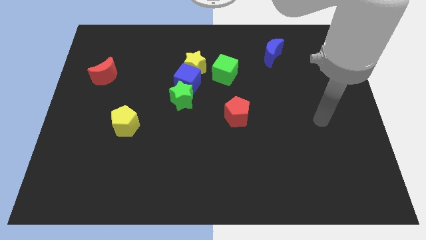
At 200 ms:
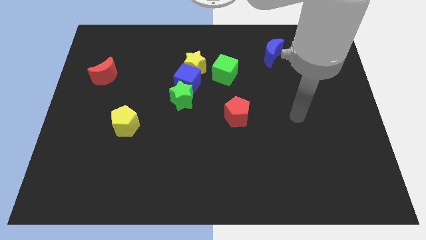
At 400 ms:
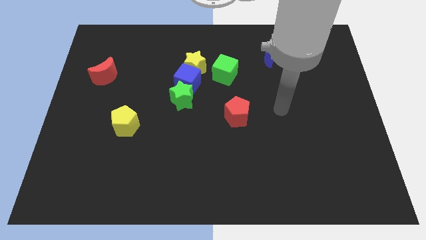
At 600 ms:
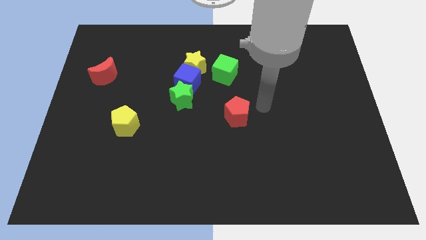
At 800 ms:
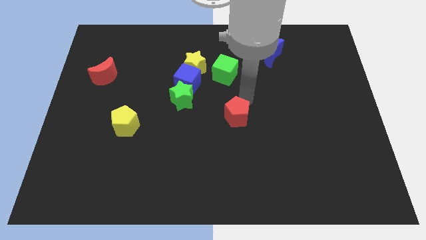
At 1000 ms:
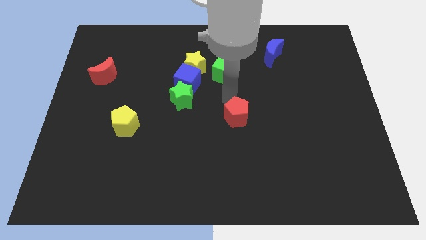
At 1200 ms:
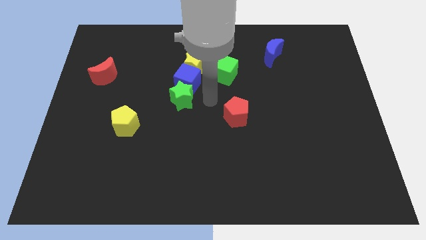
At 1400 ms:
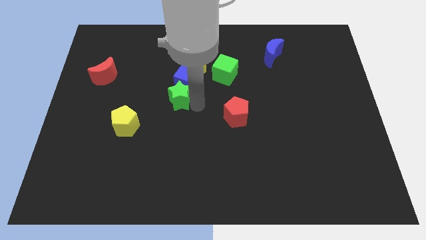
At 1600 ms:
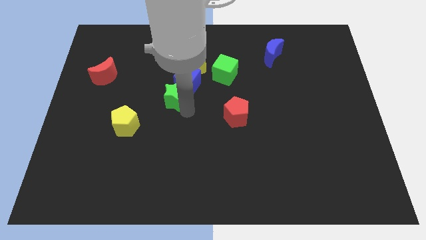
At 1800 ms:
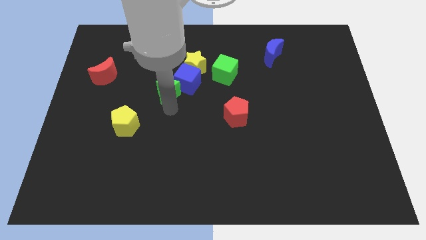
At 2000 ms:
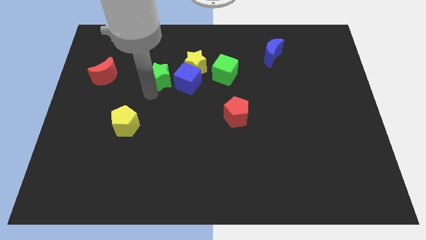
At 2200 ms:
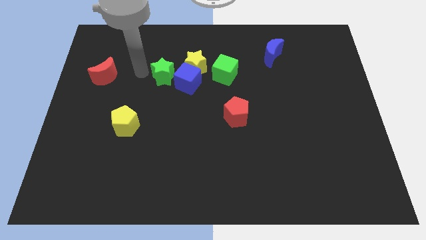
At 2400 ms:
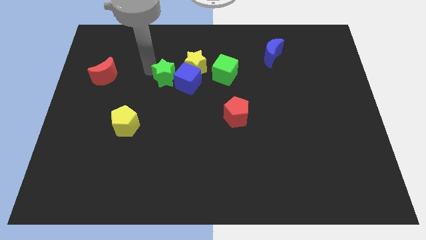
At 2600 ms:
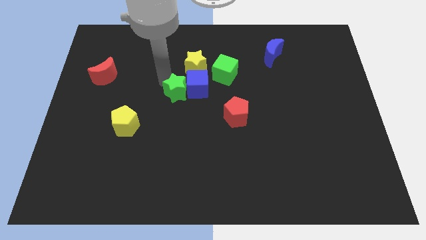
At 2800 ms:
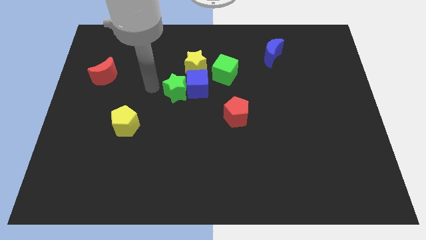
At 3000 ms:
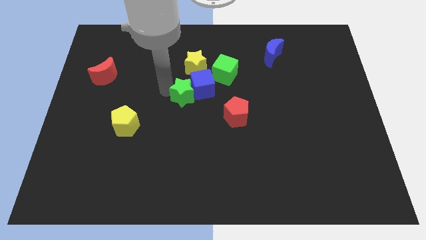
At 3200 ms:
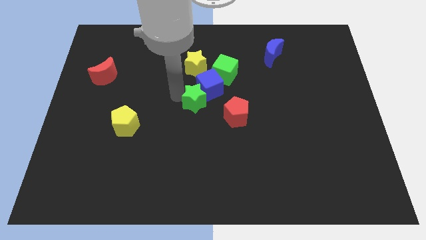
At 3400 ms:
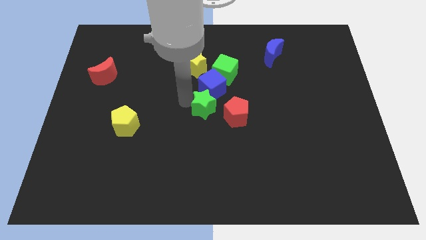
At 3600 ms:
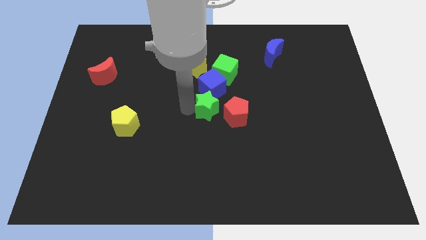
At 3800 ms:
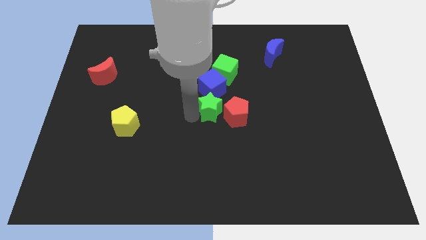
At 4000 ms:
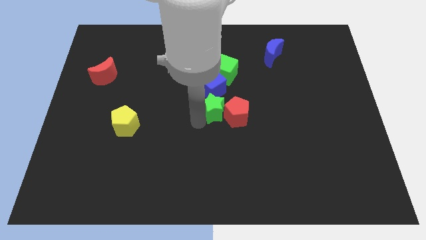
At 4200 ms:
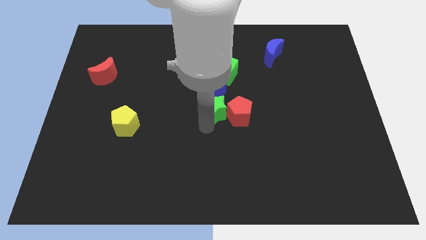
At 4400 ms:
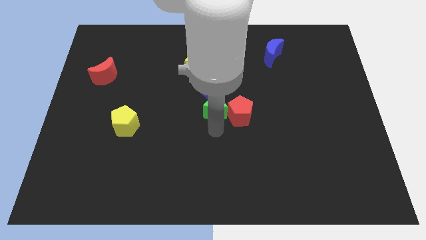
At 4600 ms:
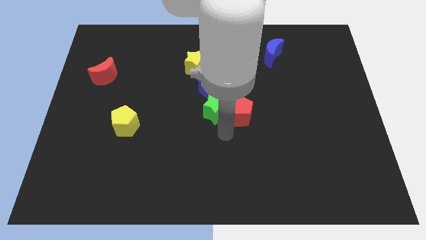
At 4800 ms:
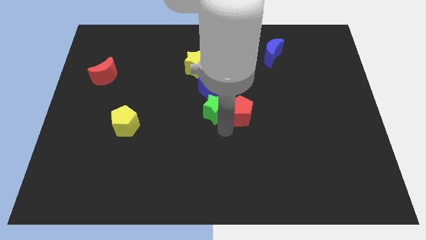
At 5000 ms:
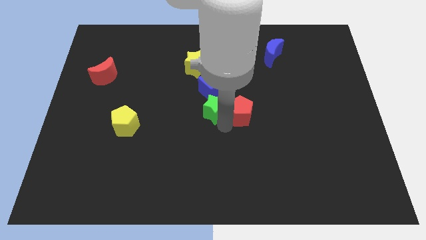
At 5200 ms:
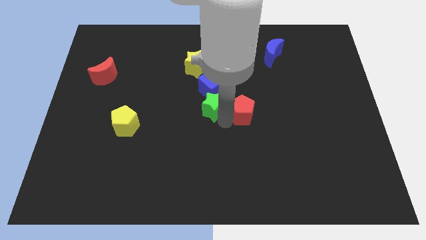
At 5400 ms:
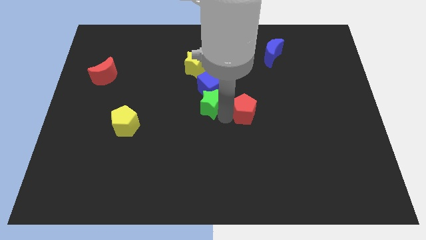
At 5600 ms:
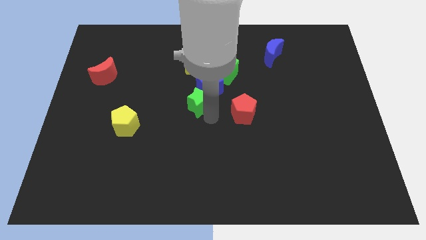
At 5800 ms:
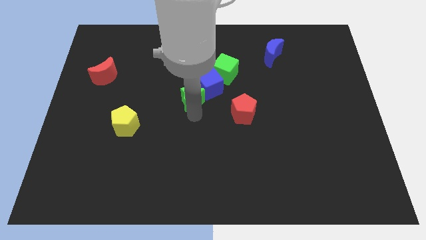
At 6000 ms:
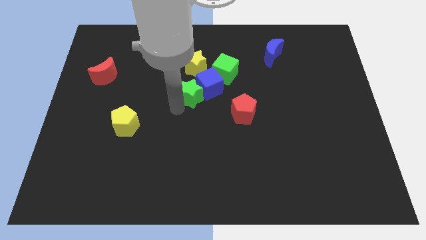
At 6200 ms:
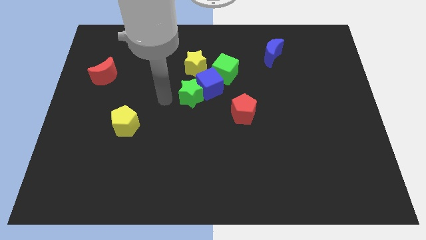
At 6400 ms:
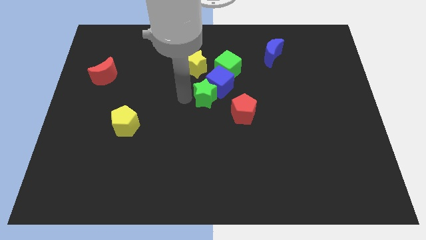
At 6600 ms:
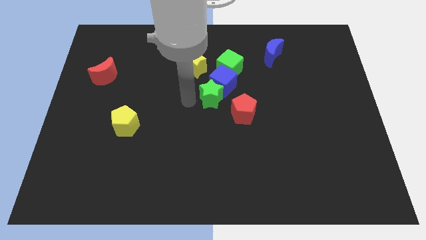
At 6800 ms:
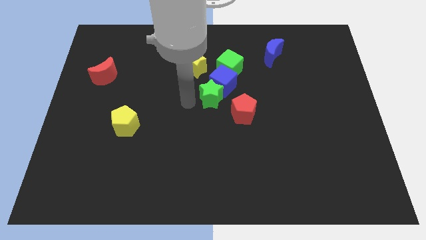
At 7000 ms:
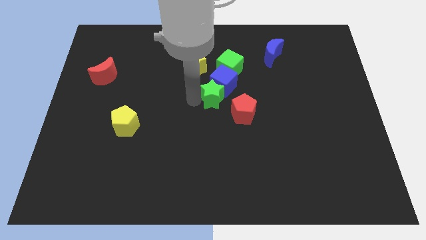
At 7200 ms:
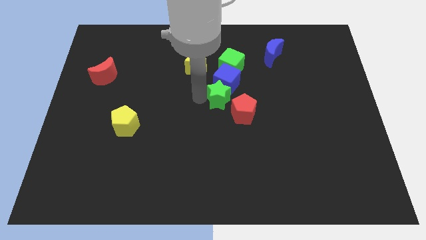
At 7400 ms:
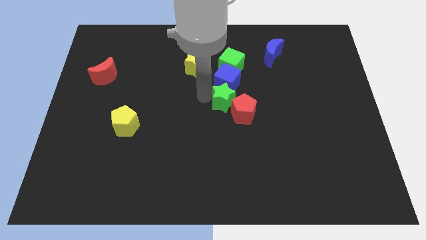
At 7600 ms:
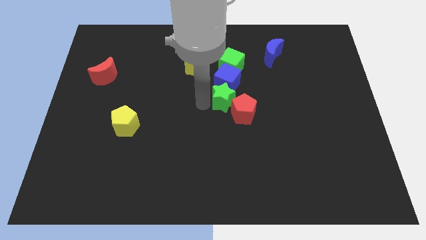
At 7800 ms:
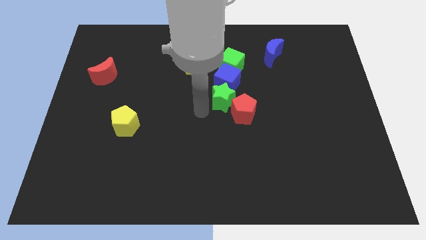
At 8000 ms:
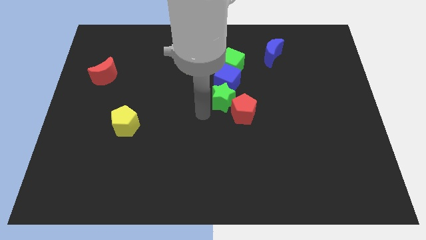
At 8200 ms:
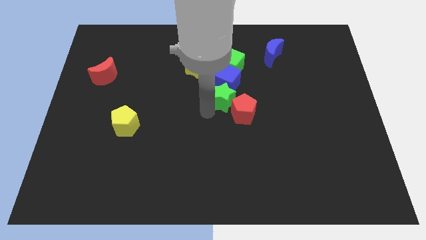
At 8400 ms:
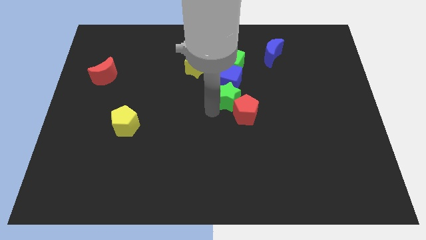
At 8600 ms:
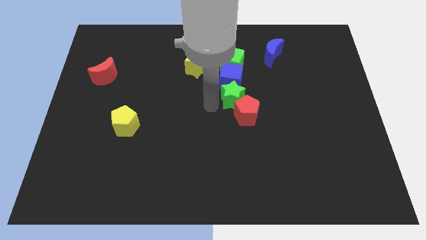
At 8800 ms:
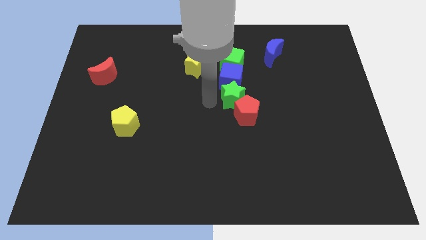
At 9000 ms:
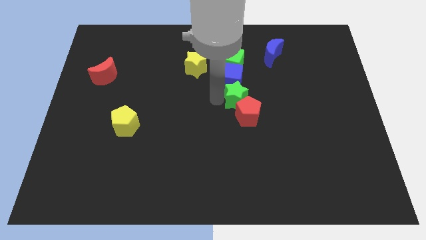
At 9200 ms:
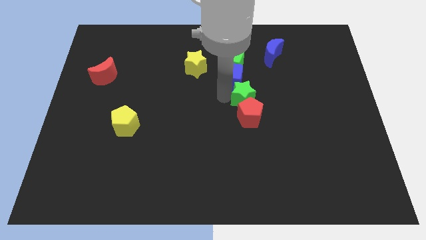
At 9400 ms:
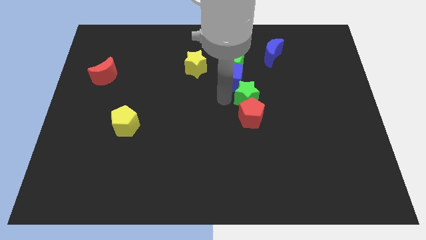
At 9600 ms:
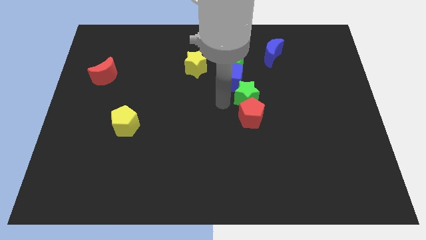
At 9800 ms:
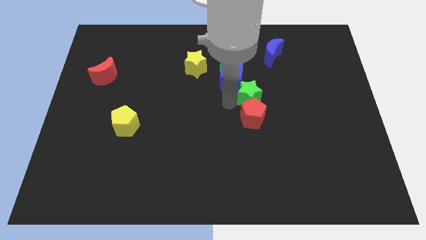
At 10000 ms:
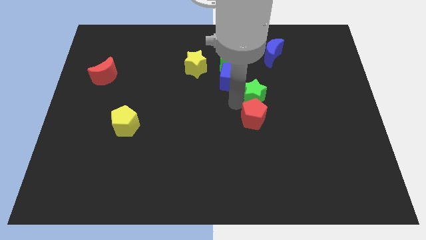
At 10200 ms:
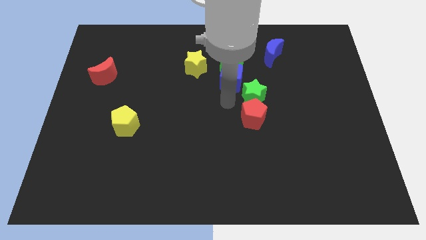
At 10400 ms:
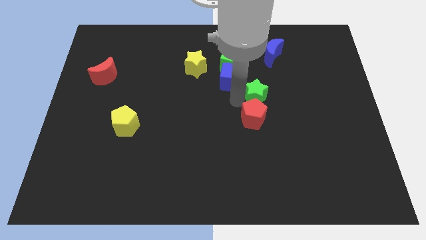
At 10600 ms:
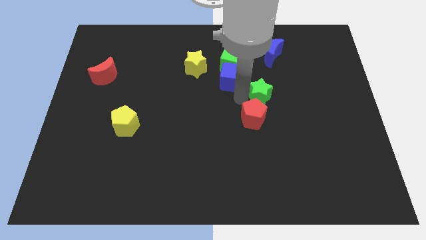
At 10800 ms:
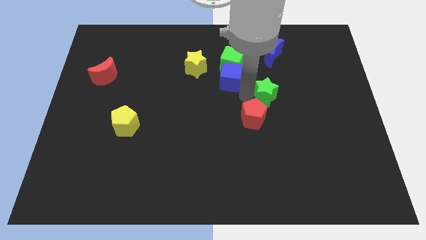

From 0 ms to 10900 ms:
slide the green star to the right

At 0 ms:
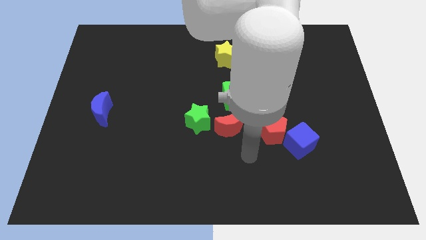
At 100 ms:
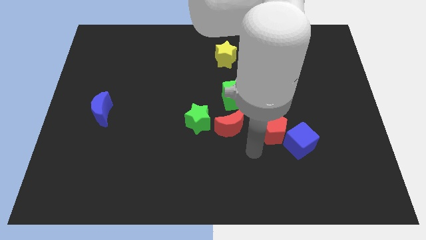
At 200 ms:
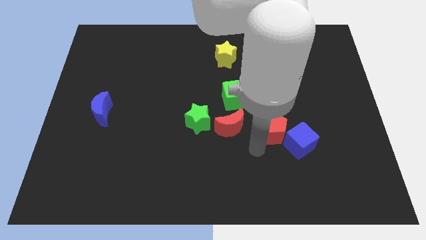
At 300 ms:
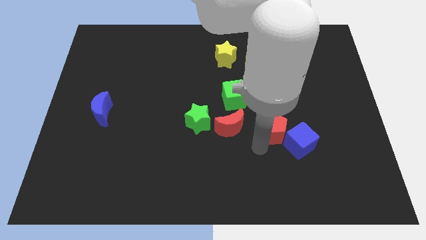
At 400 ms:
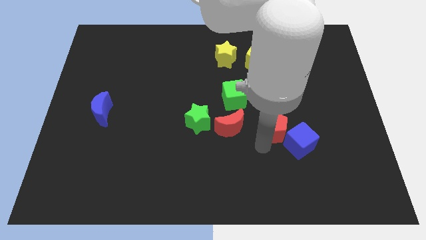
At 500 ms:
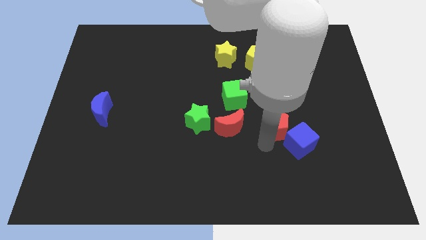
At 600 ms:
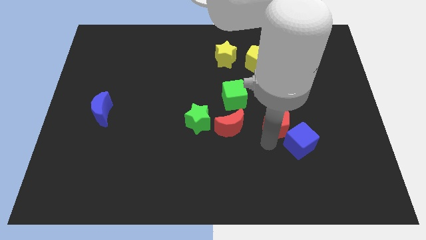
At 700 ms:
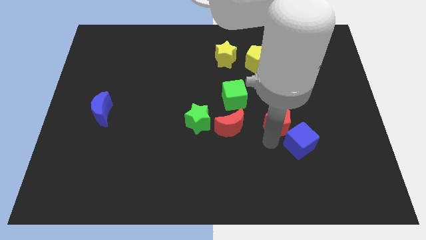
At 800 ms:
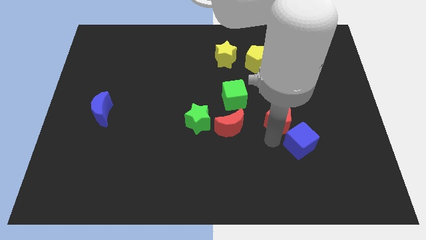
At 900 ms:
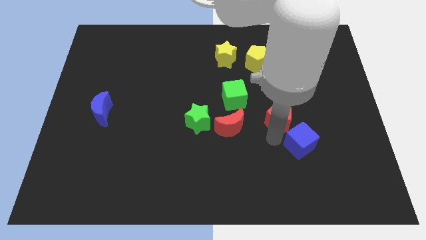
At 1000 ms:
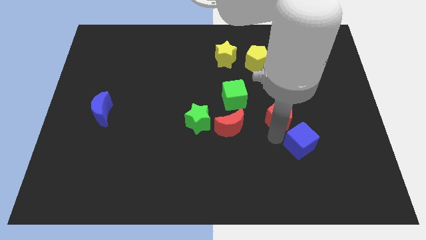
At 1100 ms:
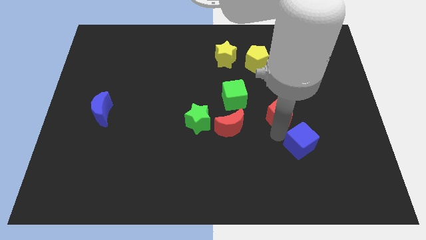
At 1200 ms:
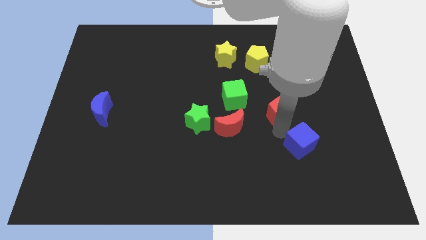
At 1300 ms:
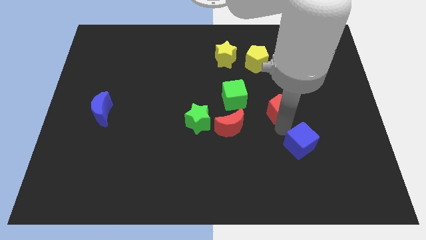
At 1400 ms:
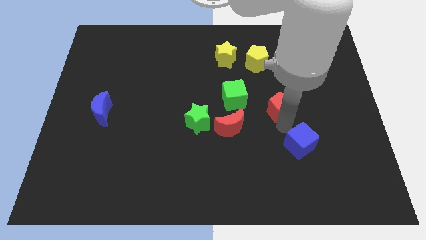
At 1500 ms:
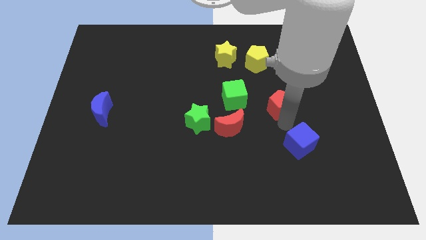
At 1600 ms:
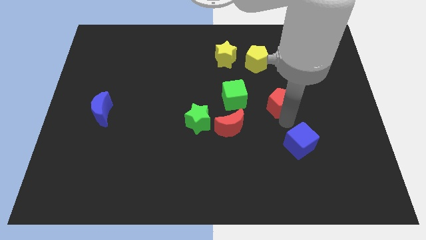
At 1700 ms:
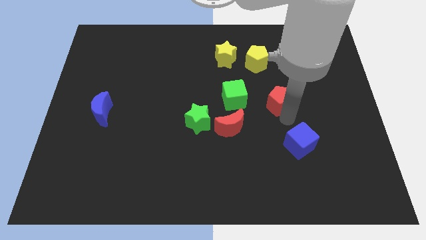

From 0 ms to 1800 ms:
push the red pentagon diagonally up and right slightly
